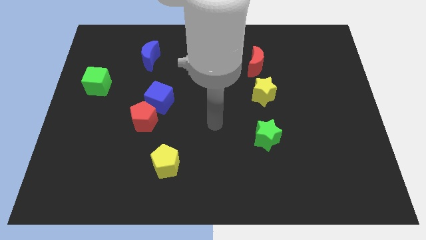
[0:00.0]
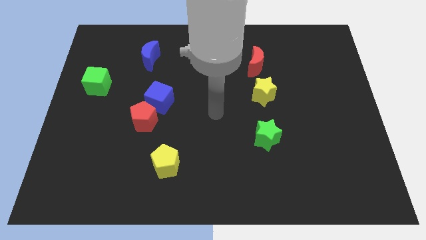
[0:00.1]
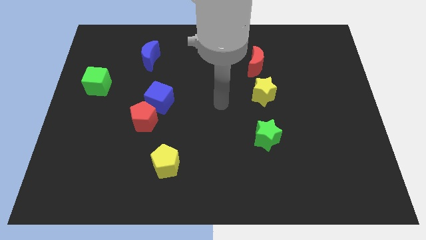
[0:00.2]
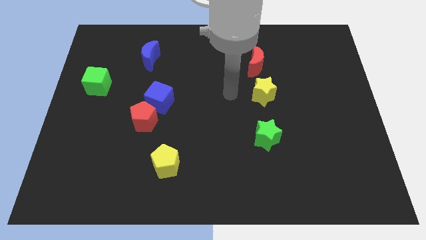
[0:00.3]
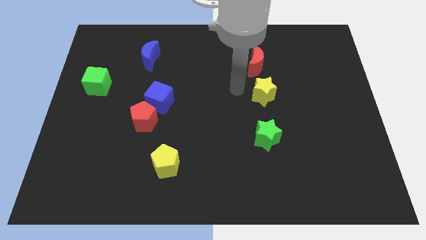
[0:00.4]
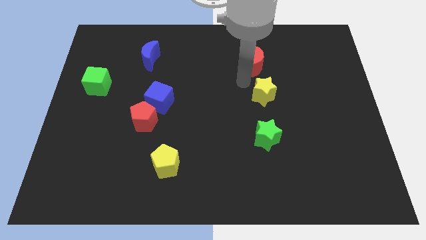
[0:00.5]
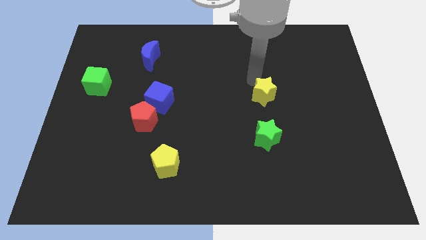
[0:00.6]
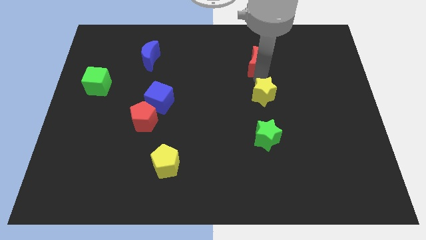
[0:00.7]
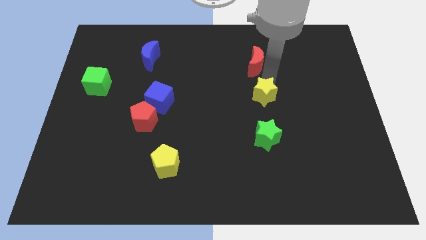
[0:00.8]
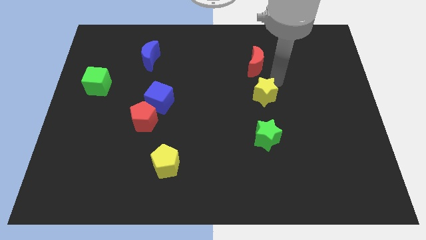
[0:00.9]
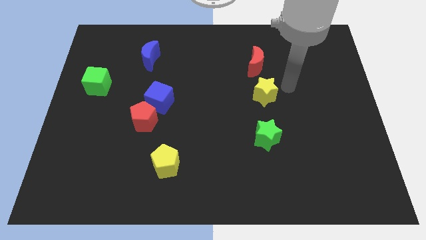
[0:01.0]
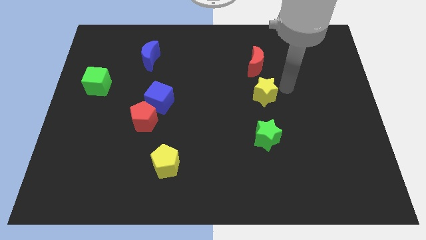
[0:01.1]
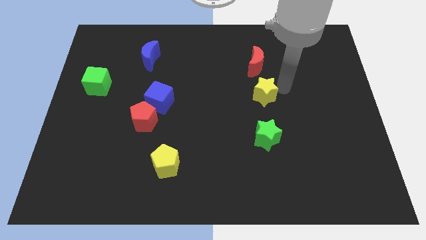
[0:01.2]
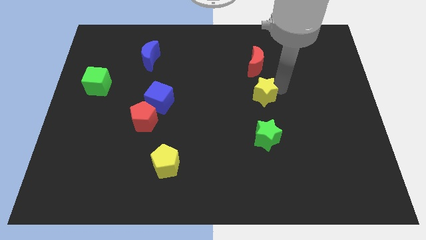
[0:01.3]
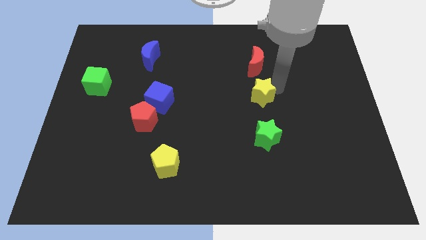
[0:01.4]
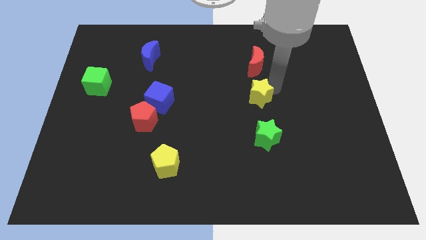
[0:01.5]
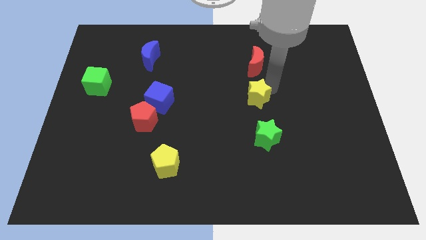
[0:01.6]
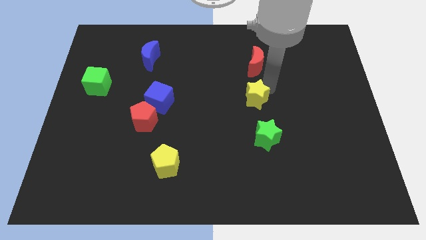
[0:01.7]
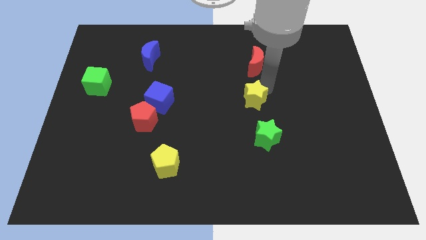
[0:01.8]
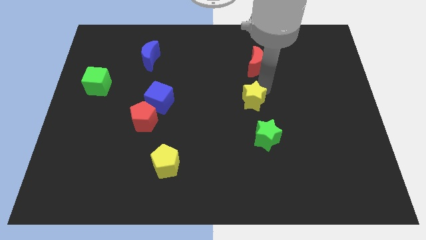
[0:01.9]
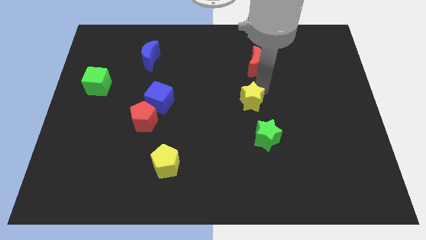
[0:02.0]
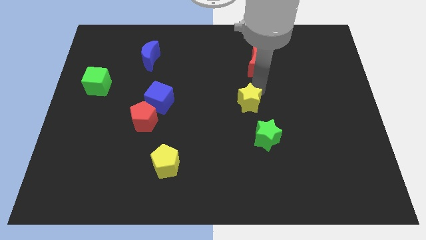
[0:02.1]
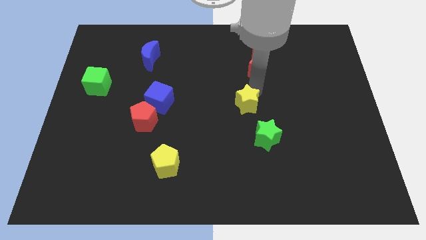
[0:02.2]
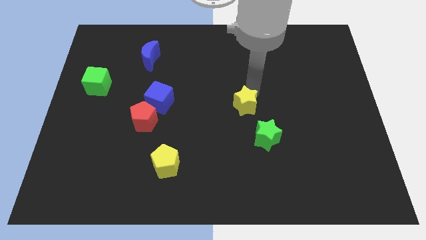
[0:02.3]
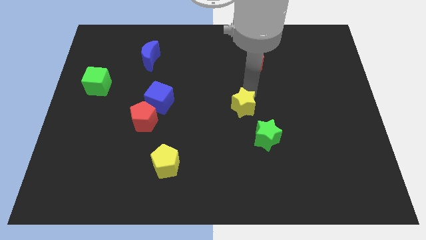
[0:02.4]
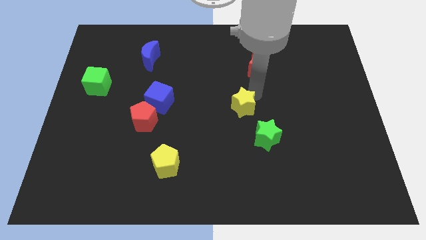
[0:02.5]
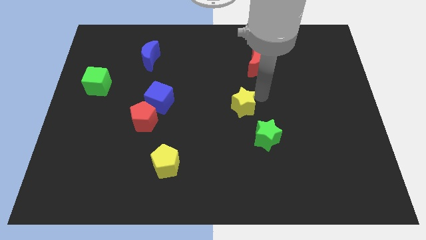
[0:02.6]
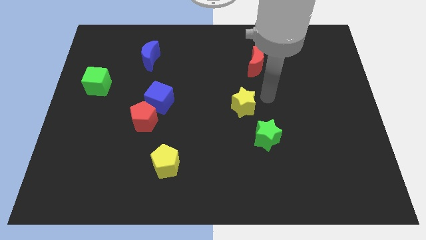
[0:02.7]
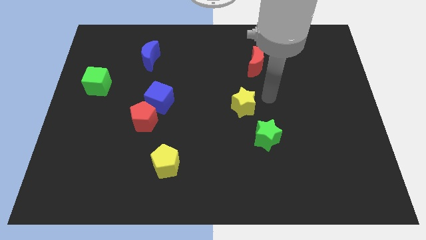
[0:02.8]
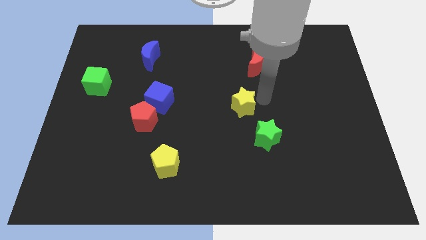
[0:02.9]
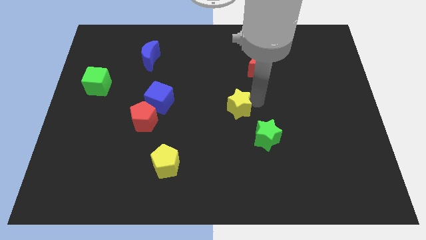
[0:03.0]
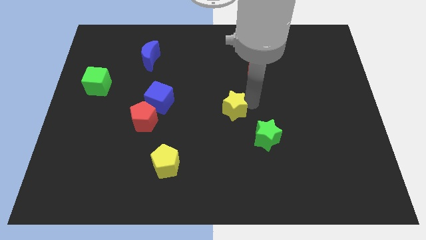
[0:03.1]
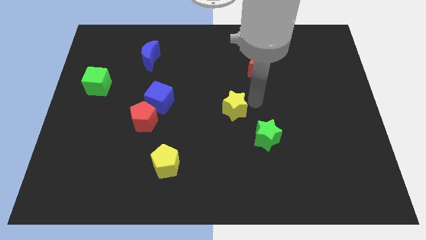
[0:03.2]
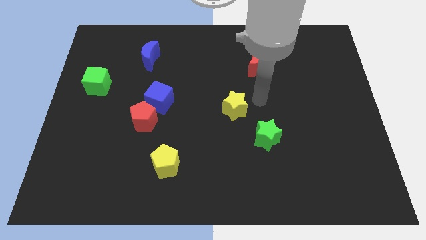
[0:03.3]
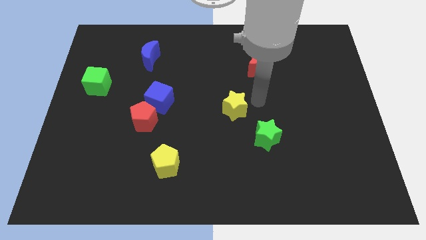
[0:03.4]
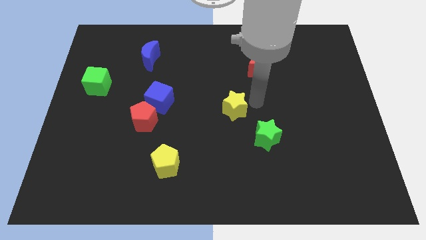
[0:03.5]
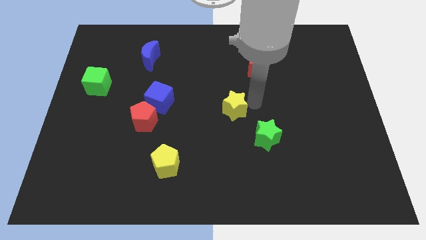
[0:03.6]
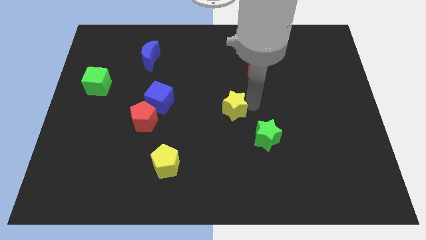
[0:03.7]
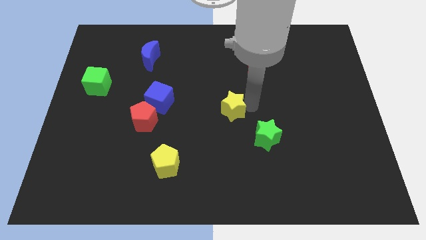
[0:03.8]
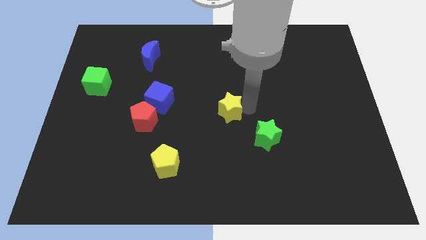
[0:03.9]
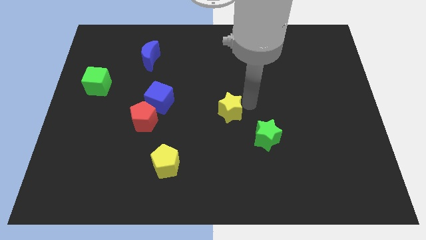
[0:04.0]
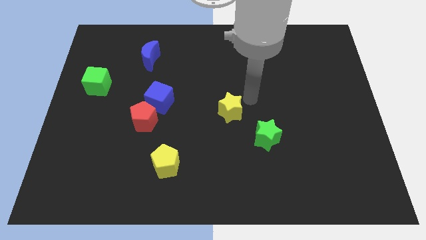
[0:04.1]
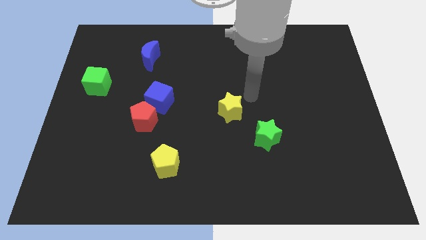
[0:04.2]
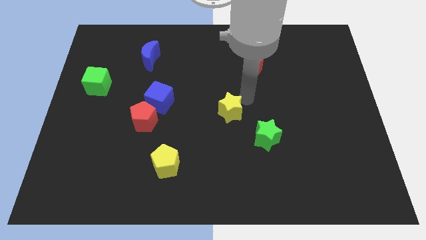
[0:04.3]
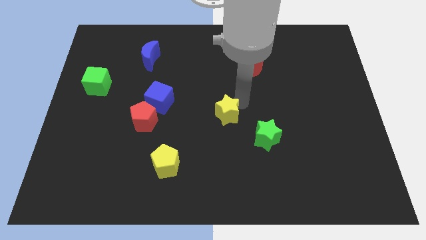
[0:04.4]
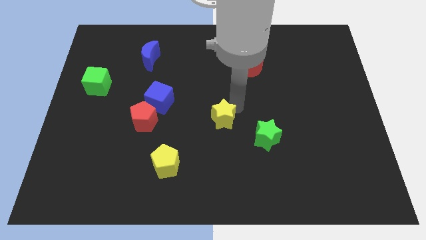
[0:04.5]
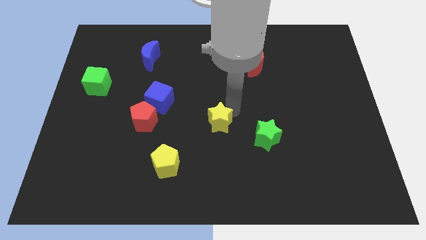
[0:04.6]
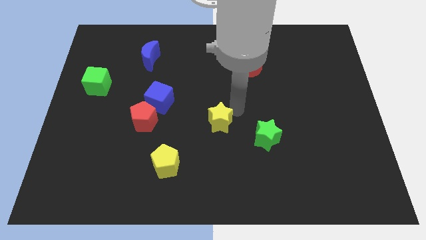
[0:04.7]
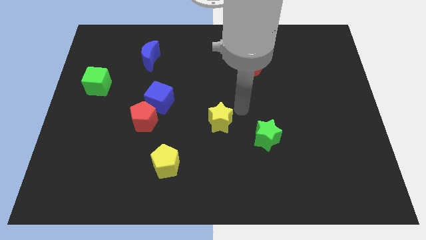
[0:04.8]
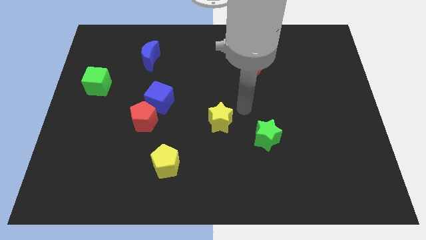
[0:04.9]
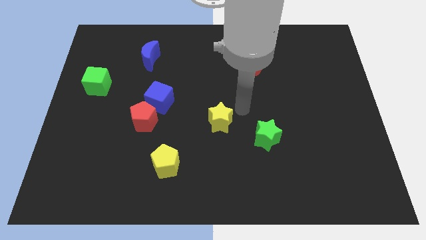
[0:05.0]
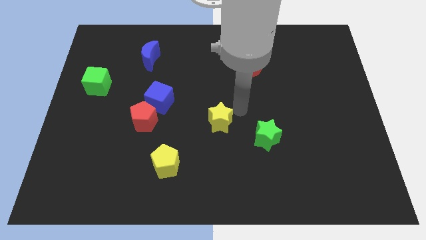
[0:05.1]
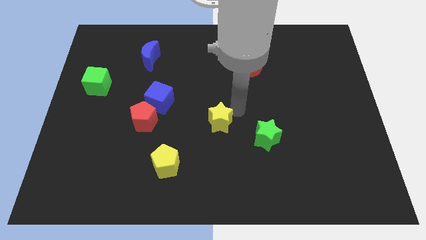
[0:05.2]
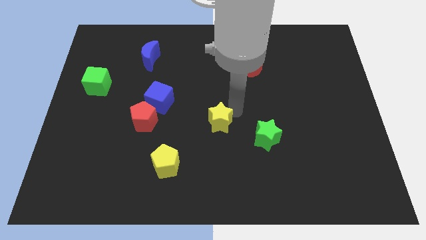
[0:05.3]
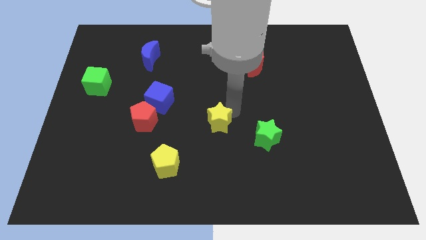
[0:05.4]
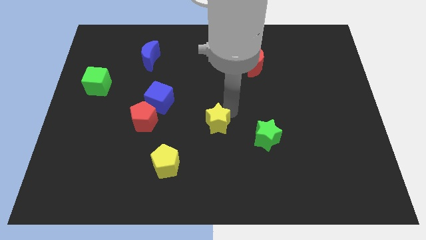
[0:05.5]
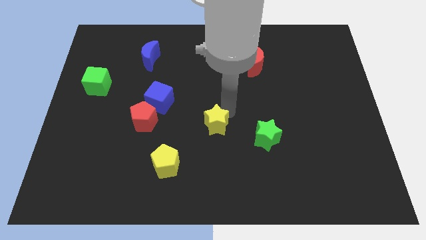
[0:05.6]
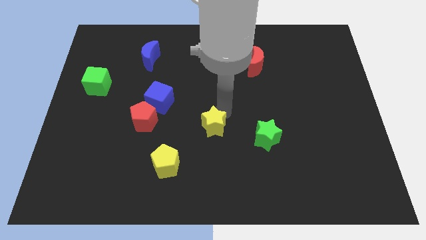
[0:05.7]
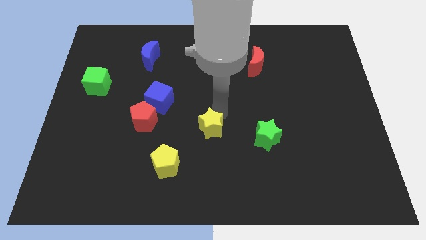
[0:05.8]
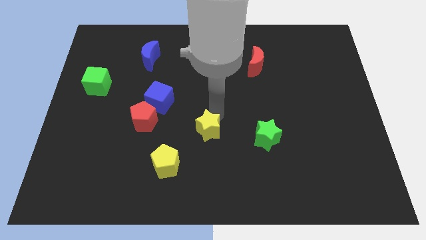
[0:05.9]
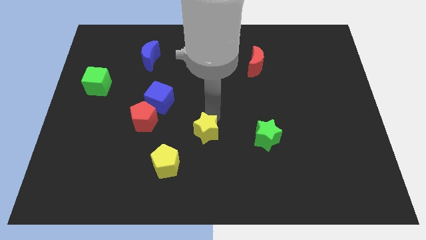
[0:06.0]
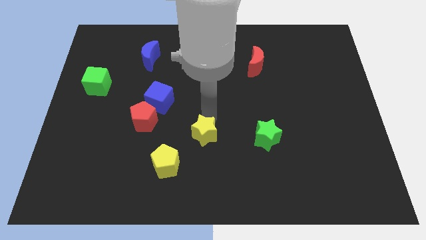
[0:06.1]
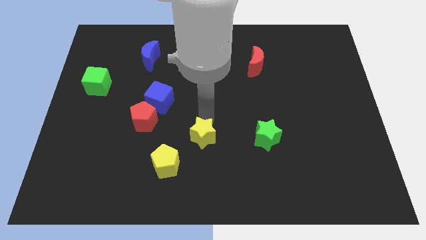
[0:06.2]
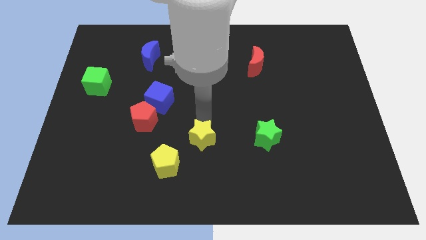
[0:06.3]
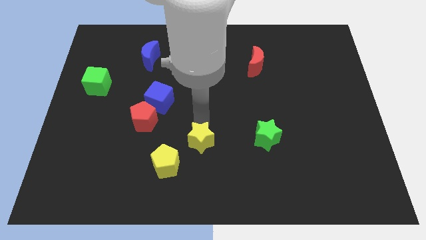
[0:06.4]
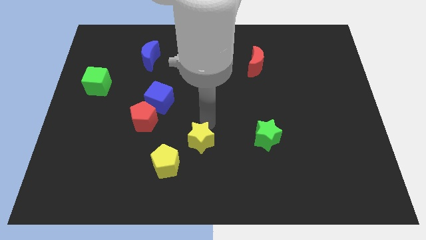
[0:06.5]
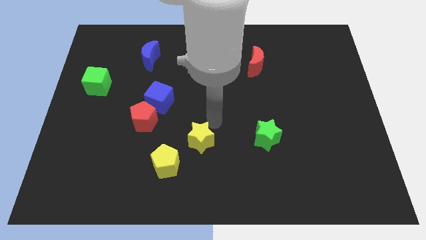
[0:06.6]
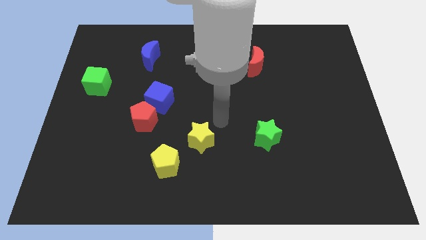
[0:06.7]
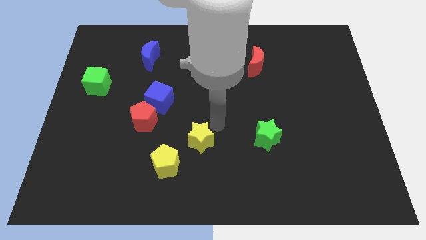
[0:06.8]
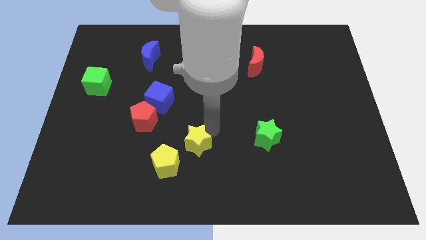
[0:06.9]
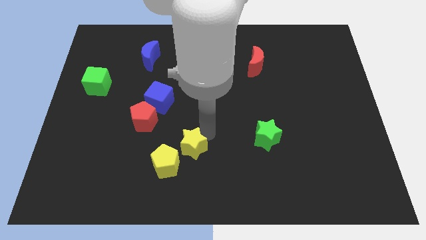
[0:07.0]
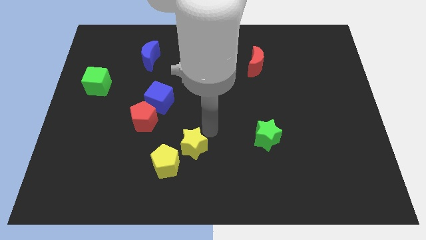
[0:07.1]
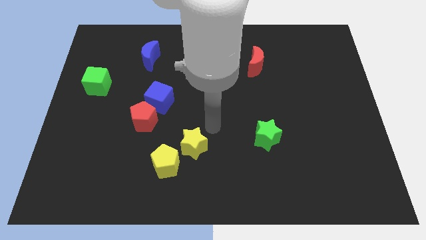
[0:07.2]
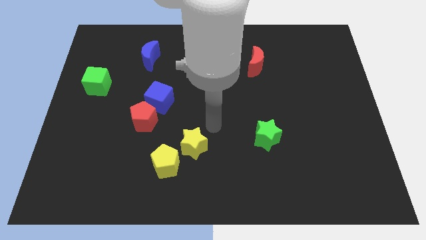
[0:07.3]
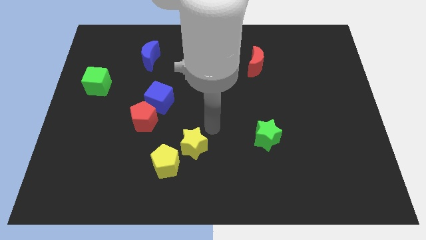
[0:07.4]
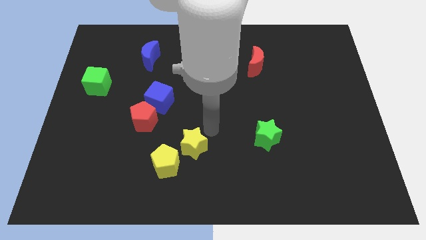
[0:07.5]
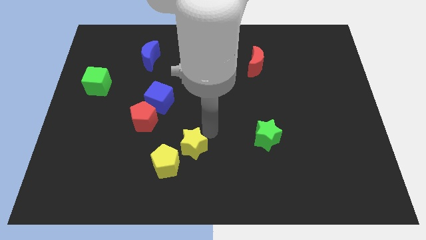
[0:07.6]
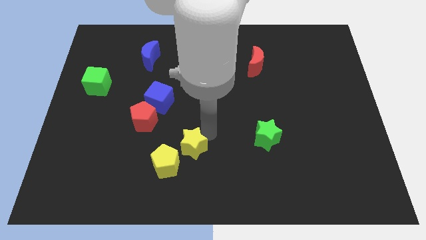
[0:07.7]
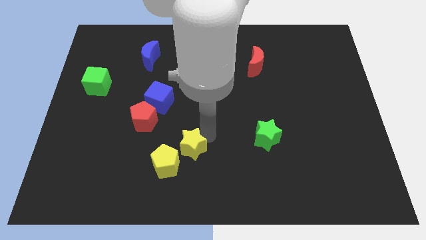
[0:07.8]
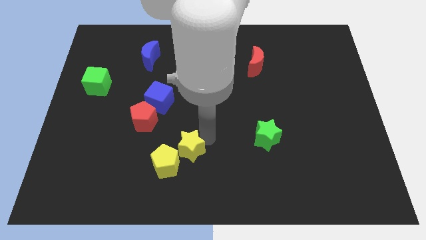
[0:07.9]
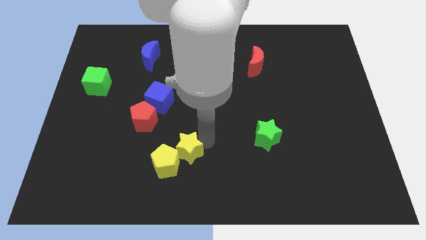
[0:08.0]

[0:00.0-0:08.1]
slide the yellow star next to the yellow pentagon
